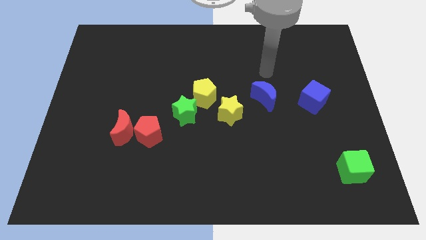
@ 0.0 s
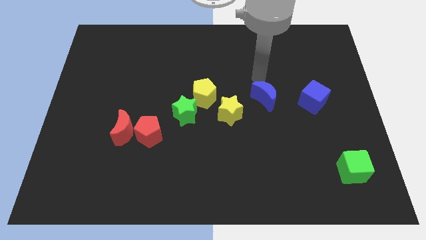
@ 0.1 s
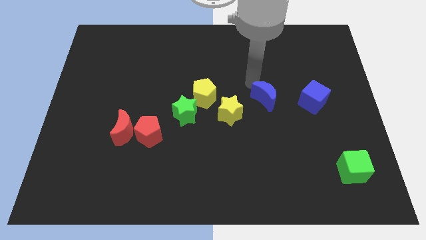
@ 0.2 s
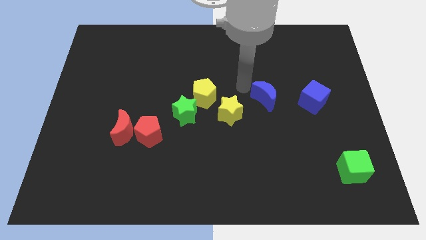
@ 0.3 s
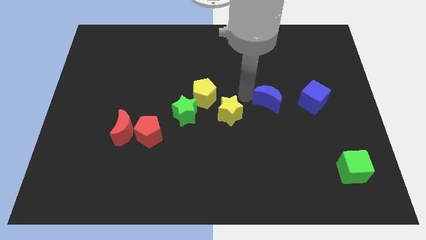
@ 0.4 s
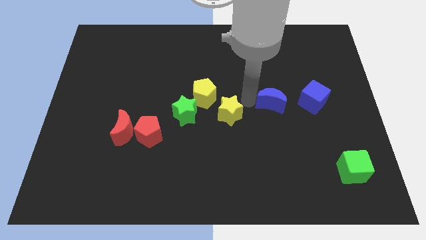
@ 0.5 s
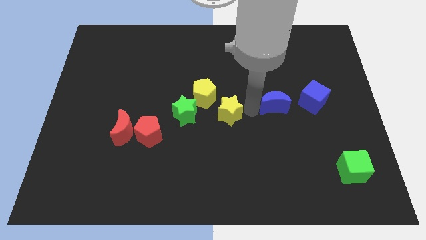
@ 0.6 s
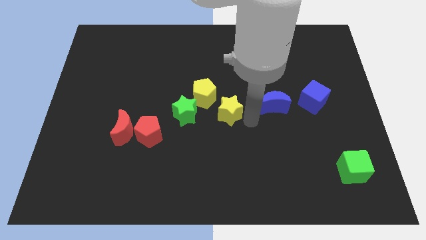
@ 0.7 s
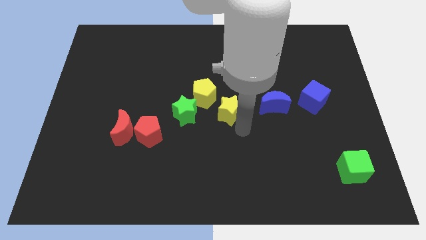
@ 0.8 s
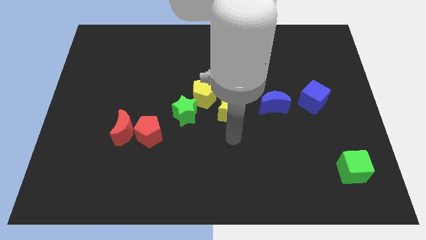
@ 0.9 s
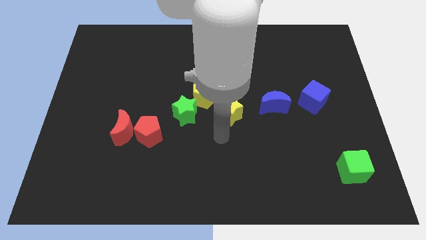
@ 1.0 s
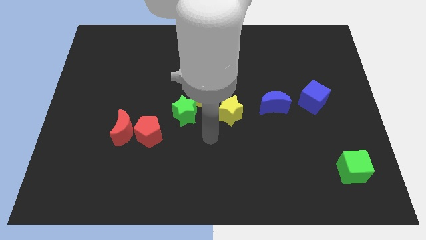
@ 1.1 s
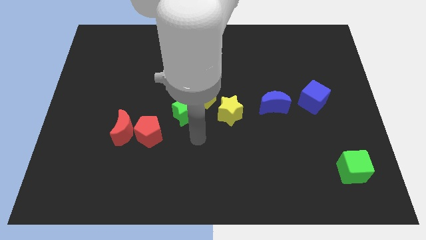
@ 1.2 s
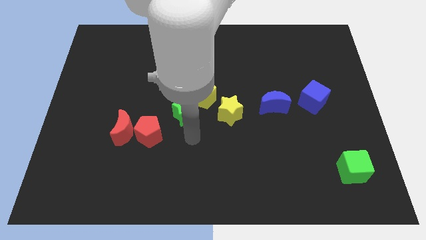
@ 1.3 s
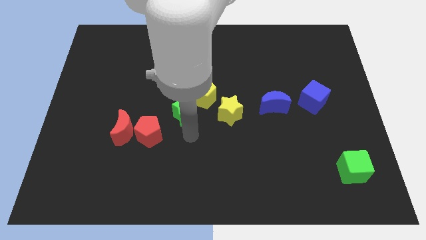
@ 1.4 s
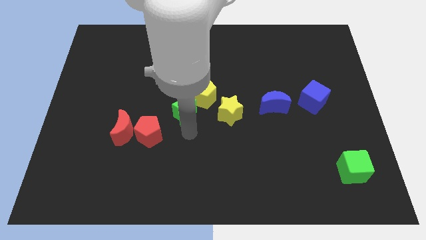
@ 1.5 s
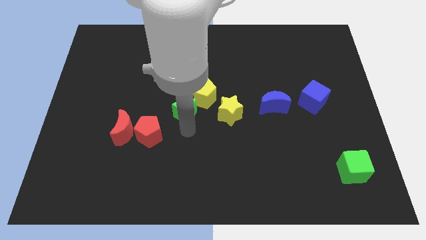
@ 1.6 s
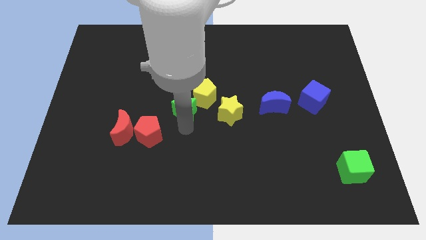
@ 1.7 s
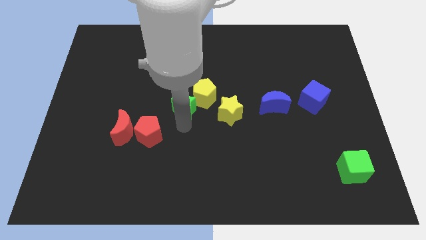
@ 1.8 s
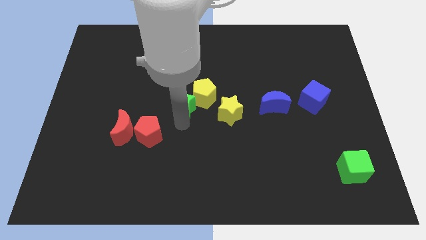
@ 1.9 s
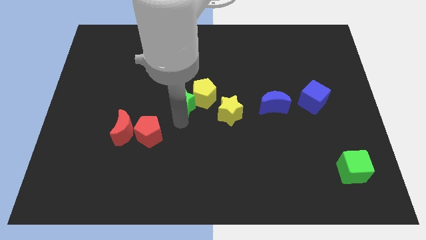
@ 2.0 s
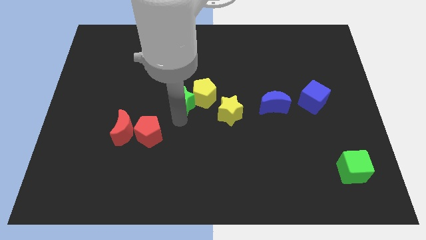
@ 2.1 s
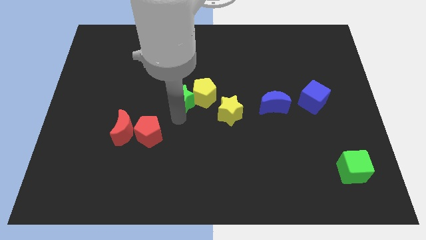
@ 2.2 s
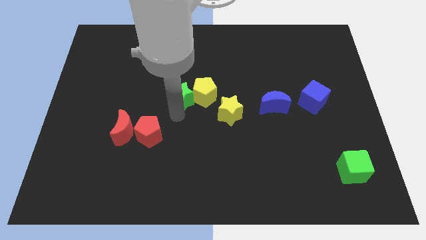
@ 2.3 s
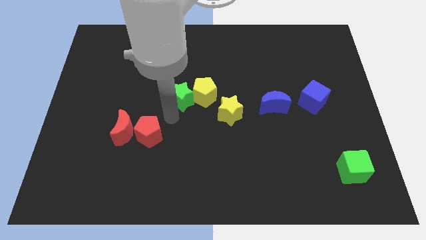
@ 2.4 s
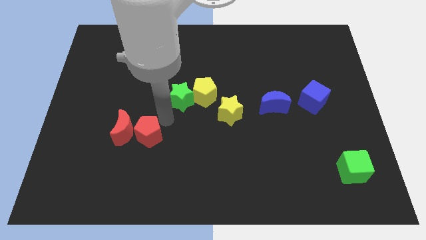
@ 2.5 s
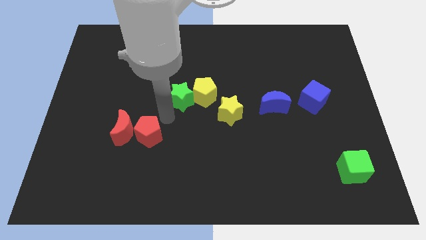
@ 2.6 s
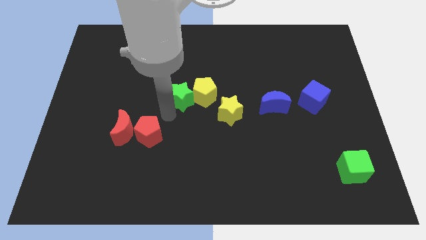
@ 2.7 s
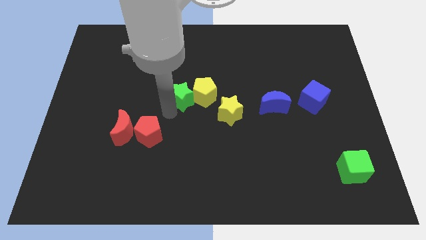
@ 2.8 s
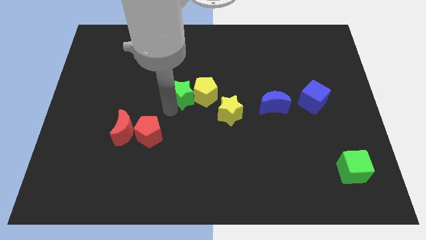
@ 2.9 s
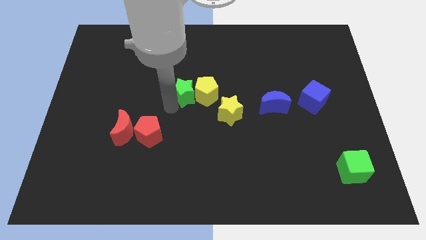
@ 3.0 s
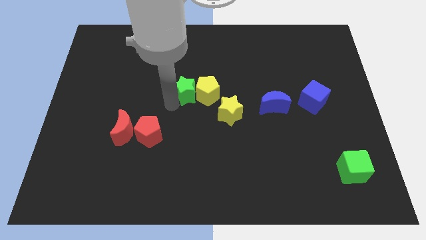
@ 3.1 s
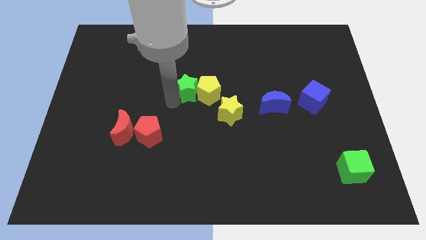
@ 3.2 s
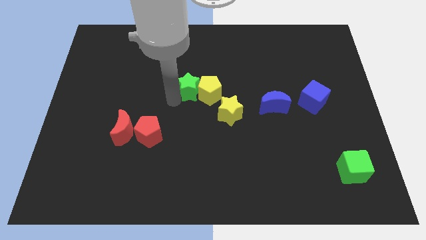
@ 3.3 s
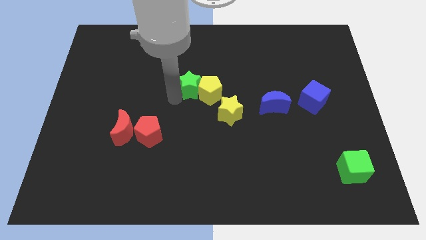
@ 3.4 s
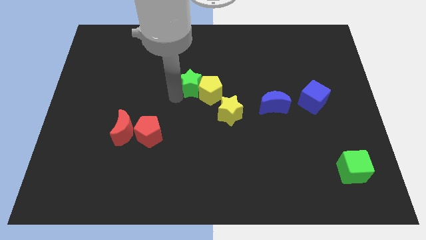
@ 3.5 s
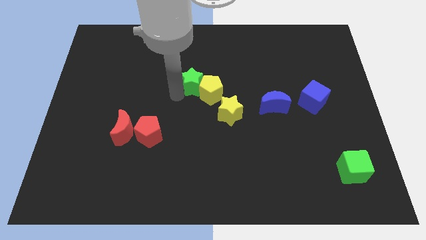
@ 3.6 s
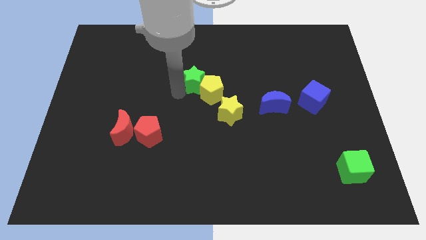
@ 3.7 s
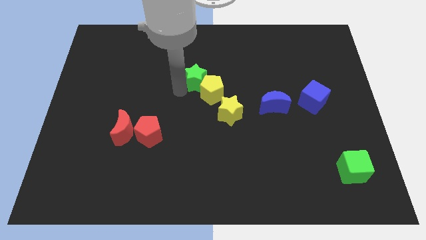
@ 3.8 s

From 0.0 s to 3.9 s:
slide the green star diagonally up and right a bit

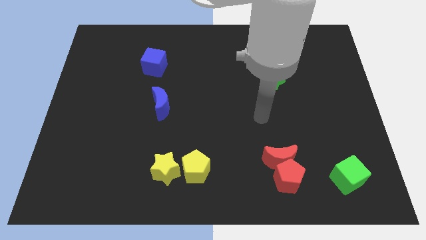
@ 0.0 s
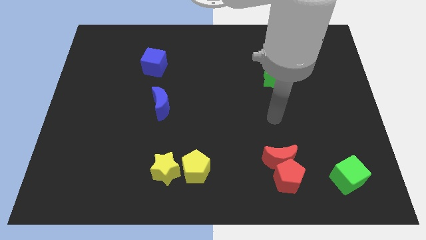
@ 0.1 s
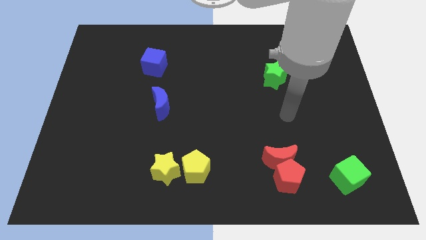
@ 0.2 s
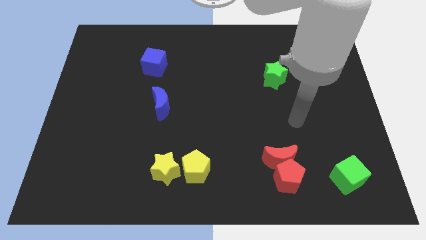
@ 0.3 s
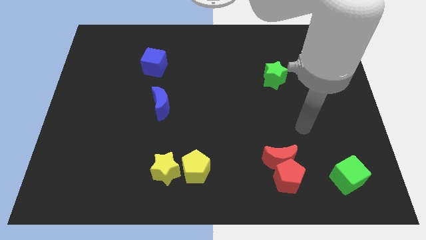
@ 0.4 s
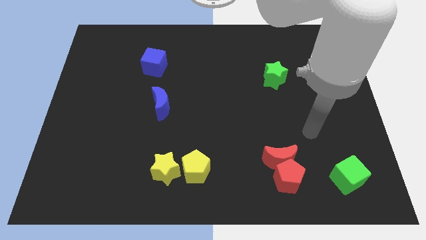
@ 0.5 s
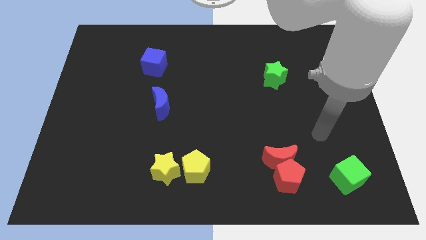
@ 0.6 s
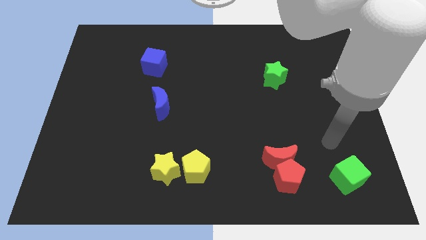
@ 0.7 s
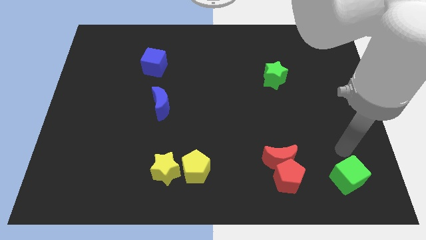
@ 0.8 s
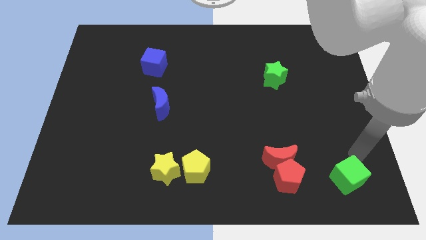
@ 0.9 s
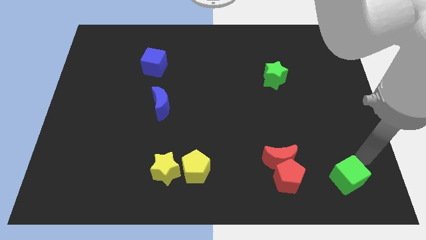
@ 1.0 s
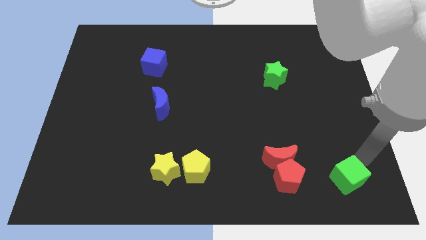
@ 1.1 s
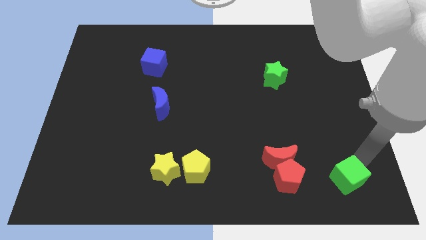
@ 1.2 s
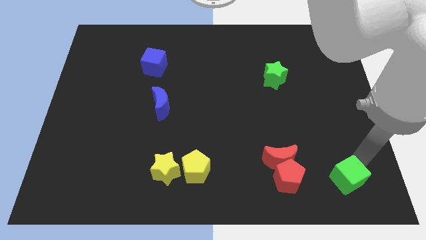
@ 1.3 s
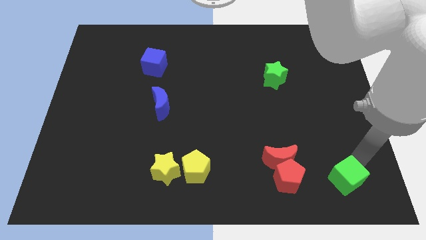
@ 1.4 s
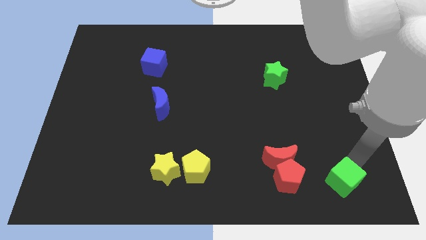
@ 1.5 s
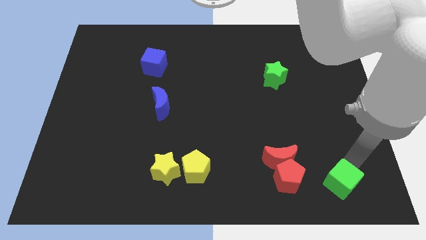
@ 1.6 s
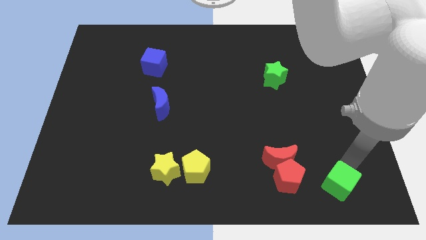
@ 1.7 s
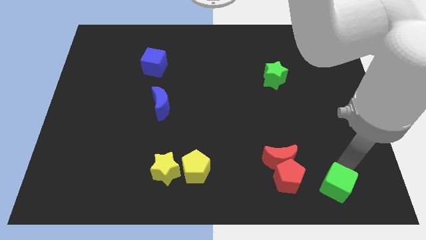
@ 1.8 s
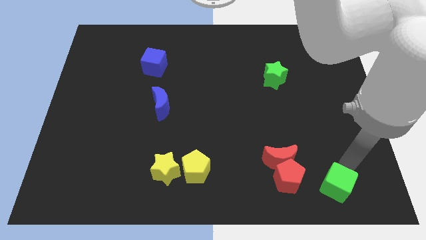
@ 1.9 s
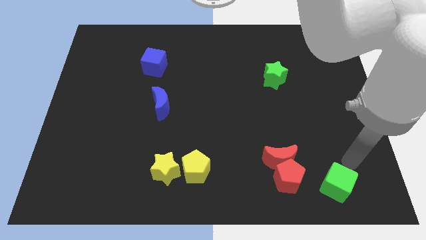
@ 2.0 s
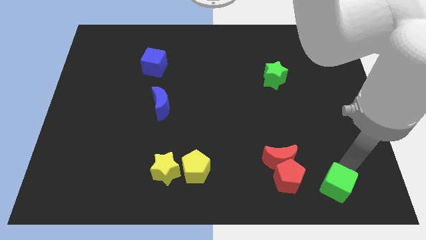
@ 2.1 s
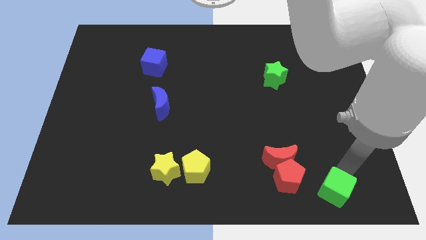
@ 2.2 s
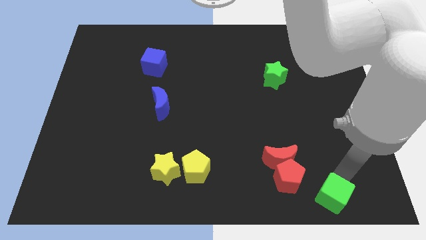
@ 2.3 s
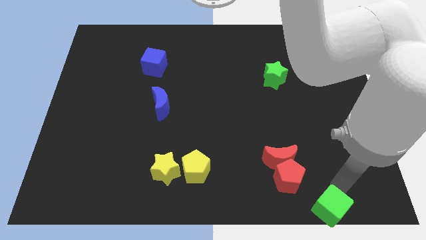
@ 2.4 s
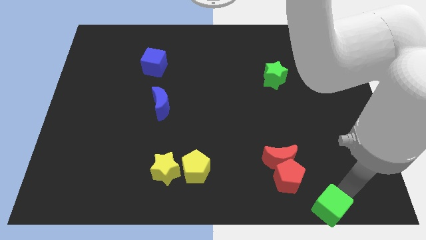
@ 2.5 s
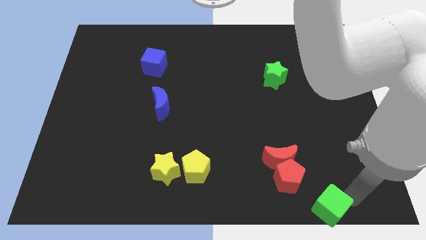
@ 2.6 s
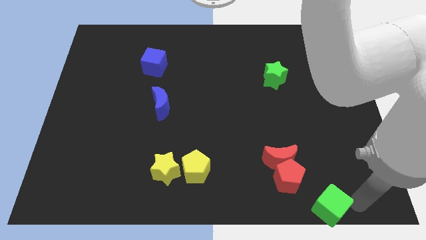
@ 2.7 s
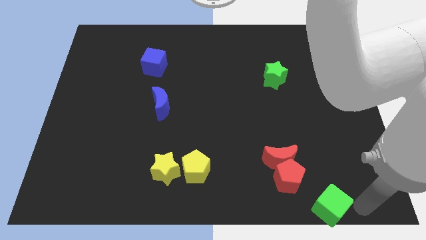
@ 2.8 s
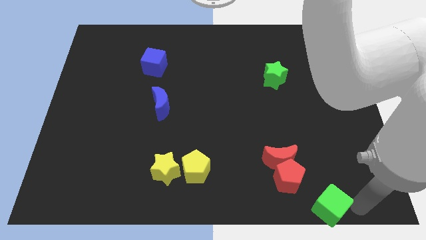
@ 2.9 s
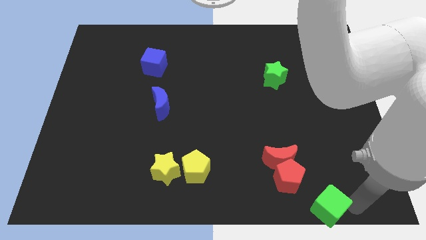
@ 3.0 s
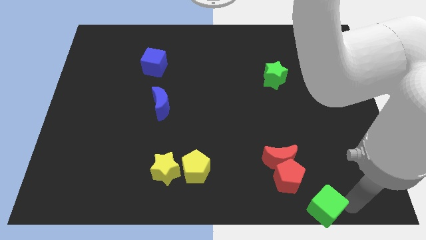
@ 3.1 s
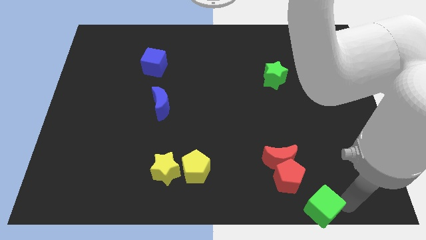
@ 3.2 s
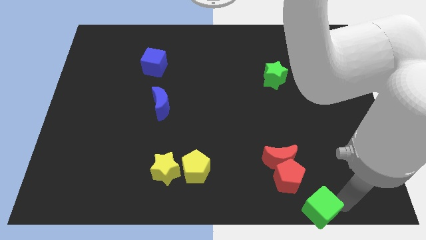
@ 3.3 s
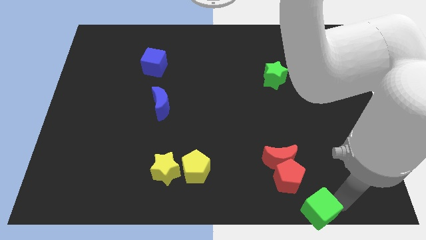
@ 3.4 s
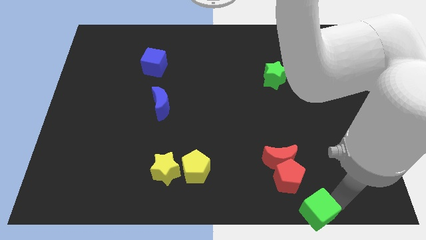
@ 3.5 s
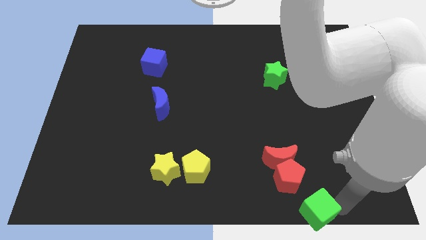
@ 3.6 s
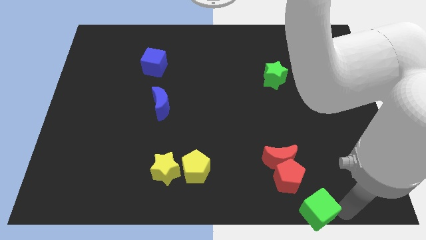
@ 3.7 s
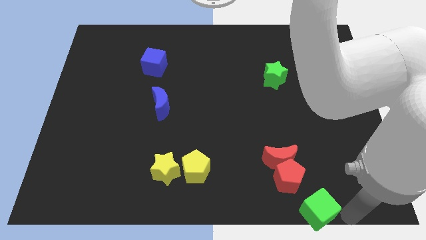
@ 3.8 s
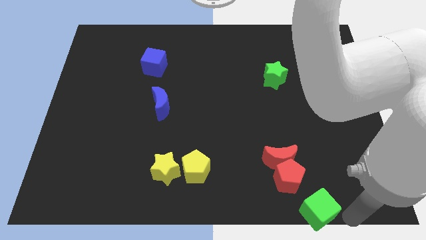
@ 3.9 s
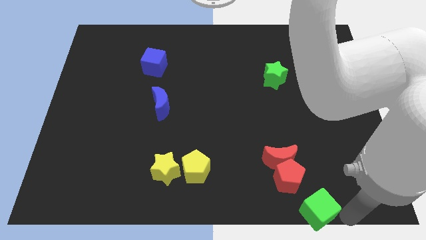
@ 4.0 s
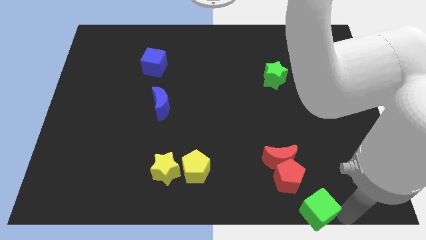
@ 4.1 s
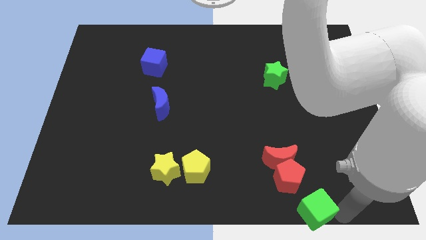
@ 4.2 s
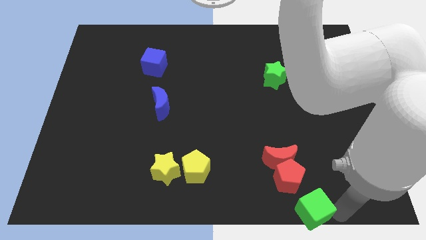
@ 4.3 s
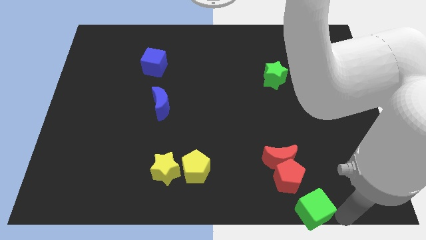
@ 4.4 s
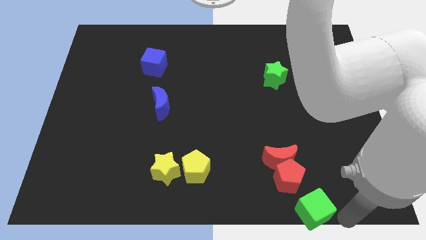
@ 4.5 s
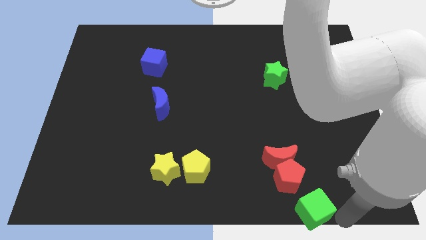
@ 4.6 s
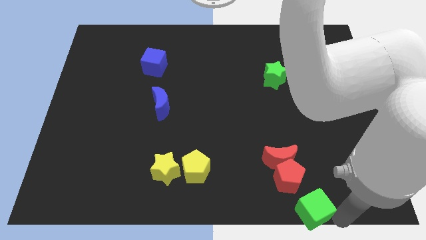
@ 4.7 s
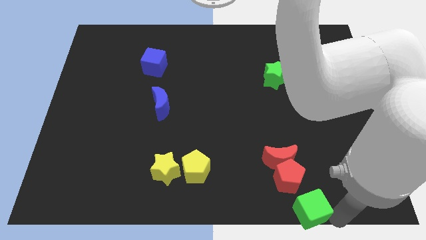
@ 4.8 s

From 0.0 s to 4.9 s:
move the green cube left somewhat
